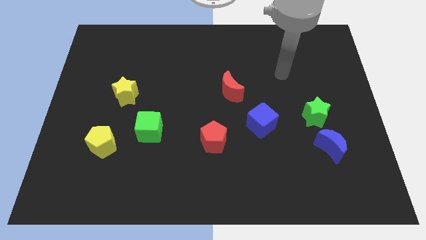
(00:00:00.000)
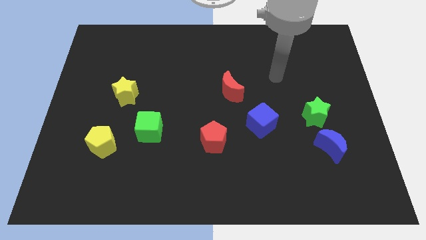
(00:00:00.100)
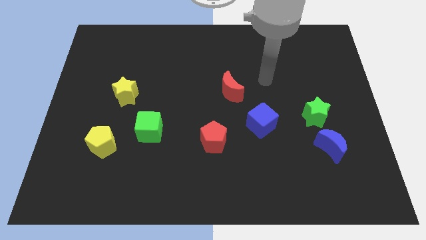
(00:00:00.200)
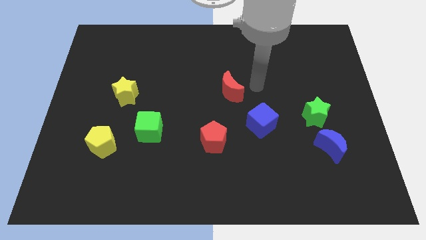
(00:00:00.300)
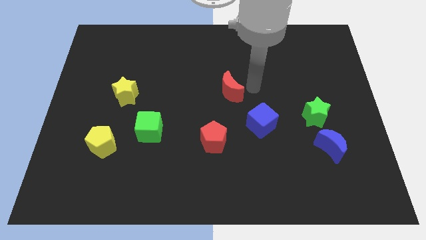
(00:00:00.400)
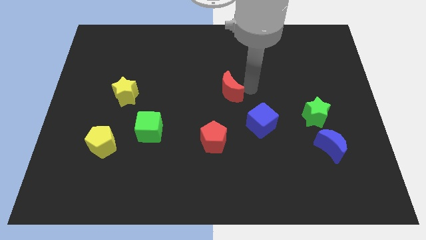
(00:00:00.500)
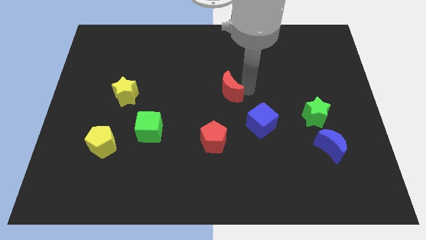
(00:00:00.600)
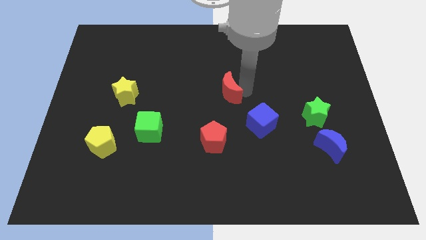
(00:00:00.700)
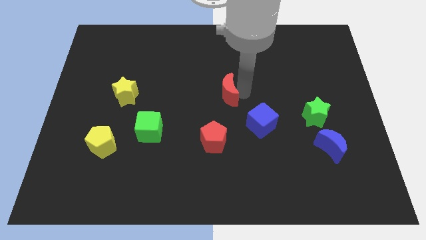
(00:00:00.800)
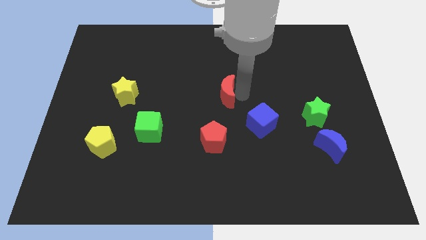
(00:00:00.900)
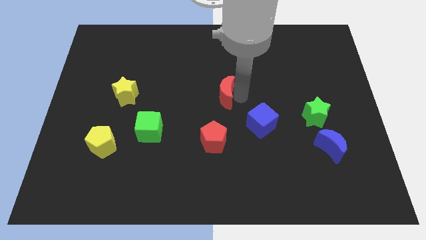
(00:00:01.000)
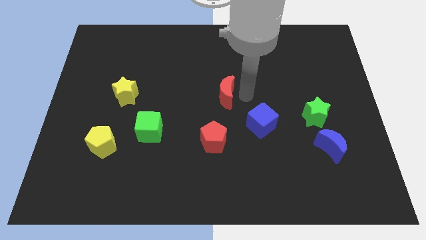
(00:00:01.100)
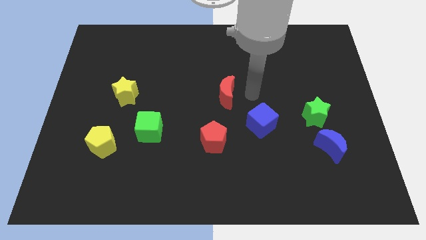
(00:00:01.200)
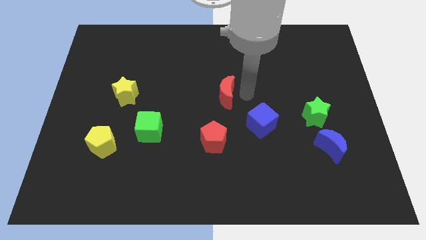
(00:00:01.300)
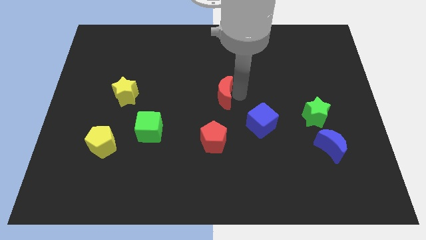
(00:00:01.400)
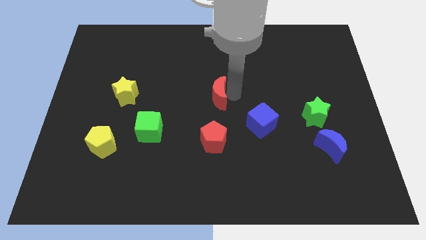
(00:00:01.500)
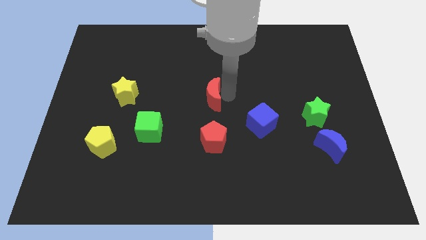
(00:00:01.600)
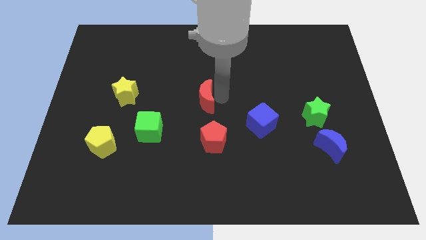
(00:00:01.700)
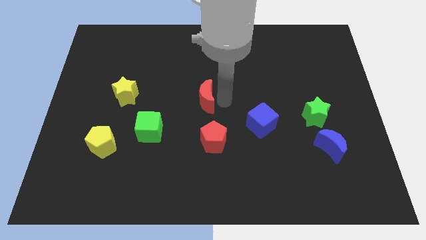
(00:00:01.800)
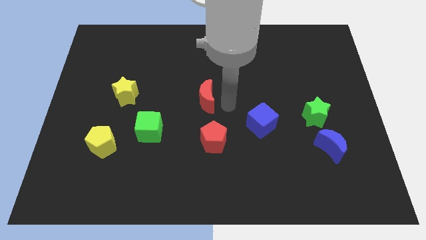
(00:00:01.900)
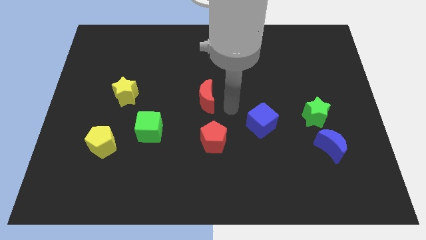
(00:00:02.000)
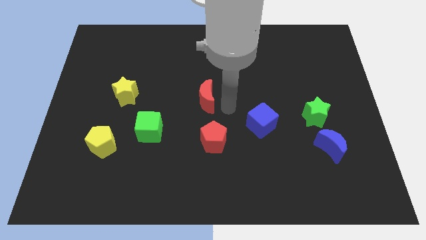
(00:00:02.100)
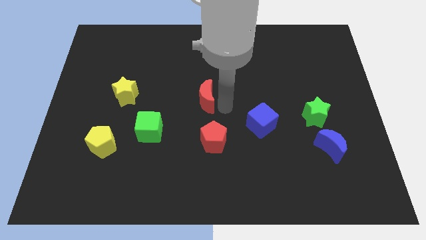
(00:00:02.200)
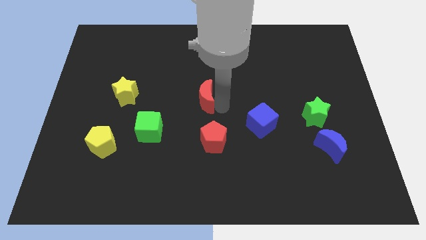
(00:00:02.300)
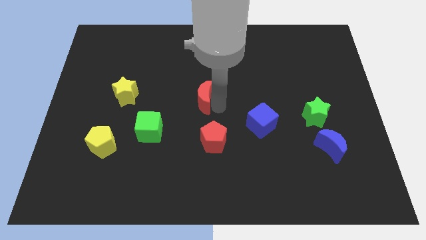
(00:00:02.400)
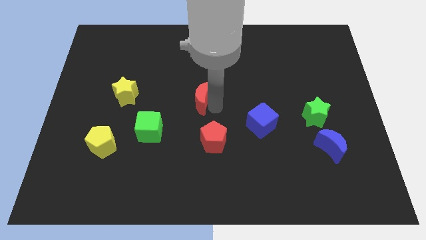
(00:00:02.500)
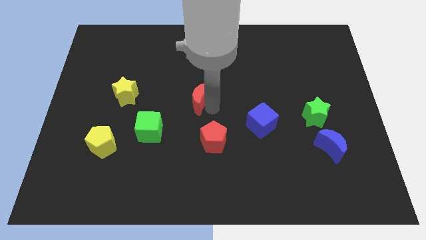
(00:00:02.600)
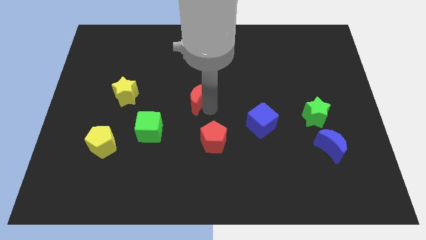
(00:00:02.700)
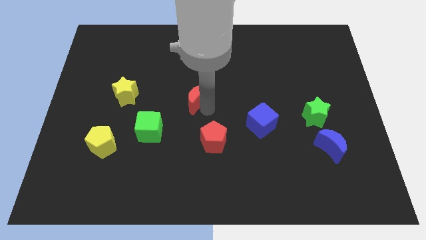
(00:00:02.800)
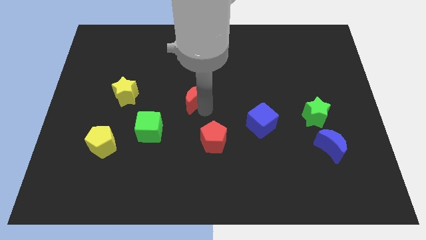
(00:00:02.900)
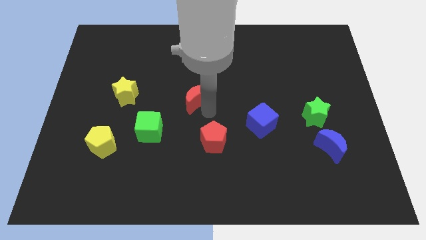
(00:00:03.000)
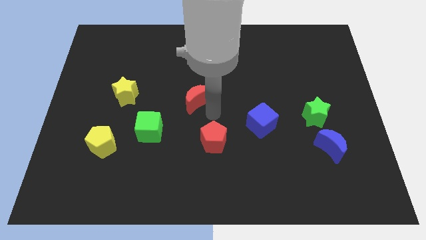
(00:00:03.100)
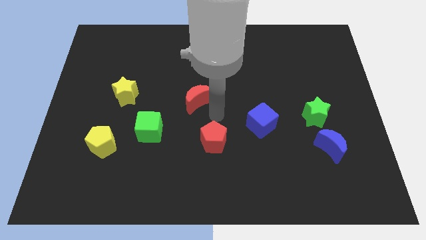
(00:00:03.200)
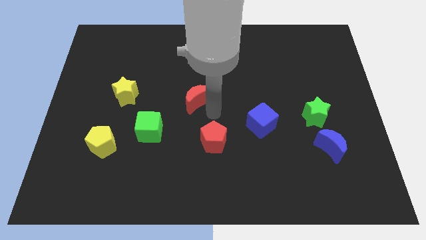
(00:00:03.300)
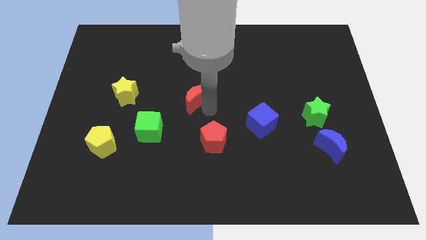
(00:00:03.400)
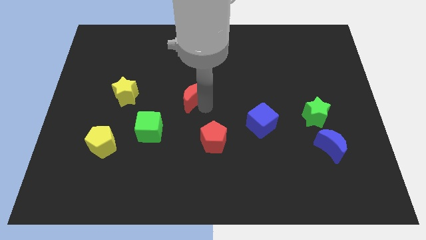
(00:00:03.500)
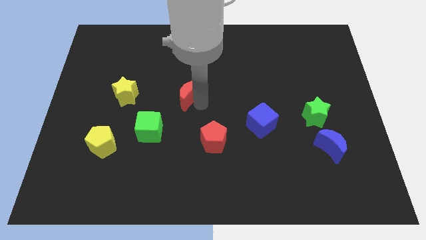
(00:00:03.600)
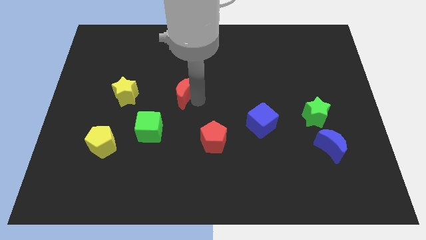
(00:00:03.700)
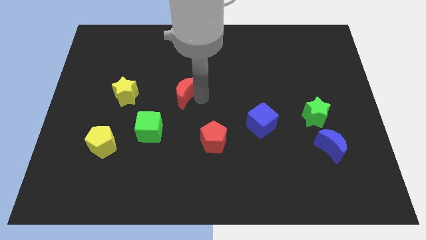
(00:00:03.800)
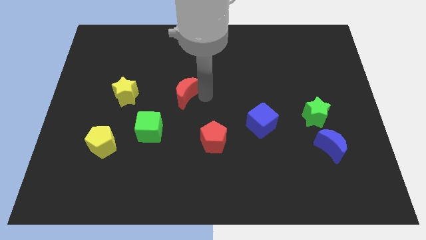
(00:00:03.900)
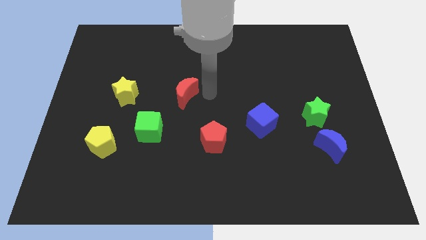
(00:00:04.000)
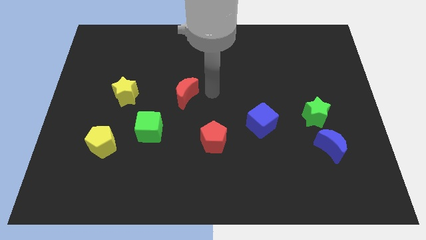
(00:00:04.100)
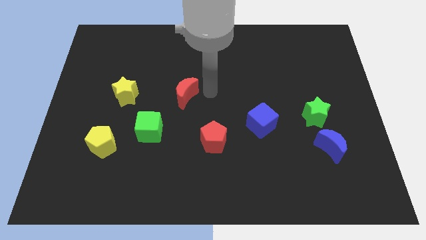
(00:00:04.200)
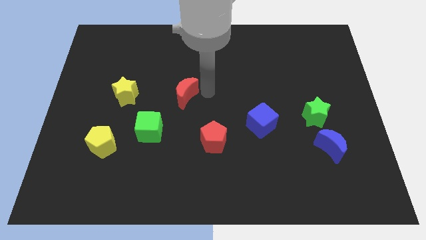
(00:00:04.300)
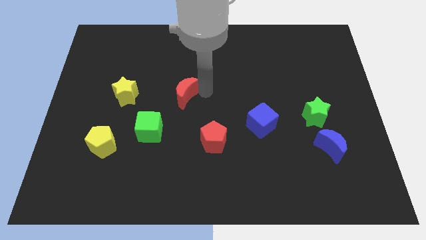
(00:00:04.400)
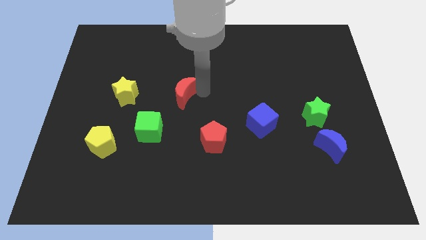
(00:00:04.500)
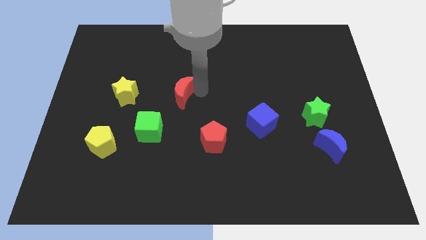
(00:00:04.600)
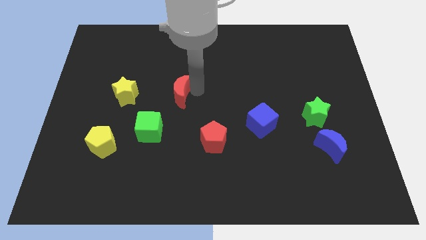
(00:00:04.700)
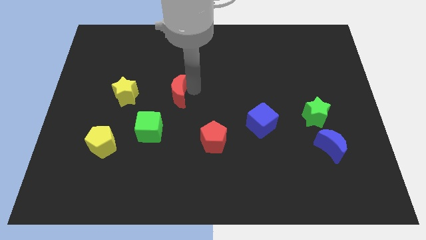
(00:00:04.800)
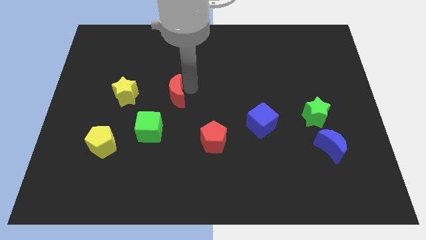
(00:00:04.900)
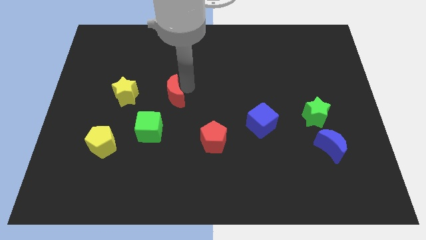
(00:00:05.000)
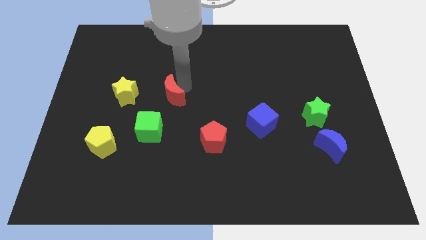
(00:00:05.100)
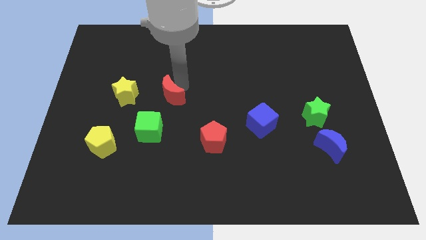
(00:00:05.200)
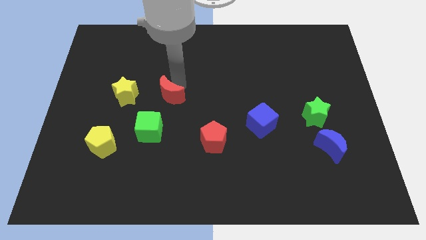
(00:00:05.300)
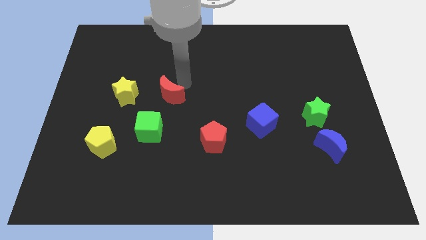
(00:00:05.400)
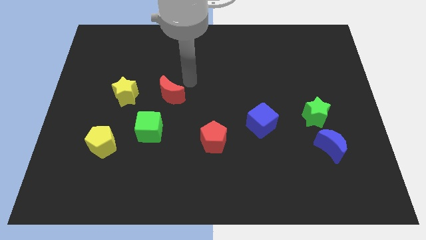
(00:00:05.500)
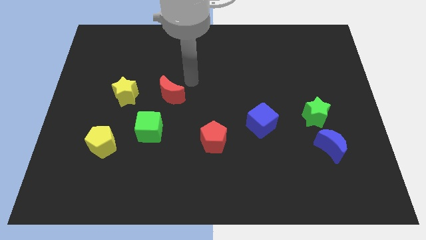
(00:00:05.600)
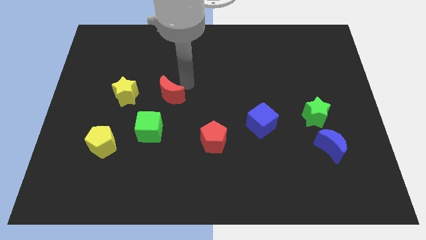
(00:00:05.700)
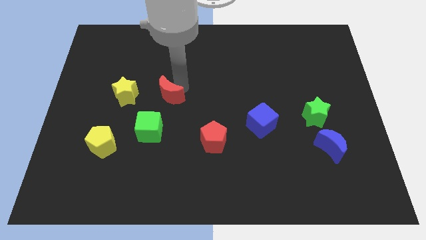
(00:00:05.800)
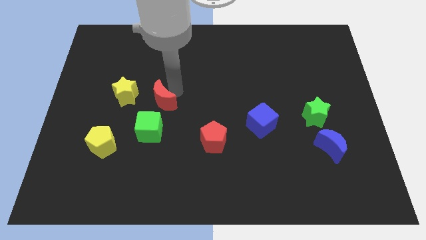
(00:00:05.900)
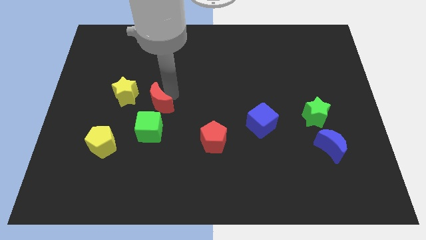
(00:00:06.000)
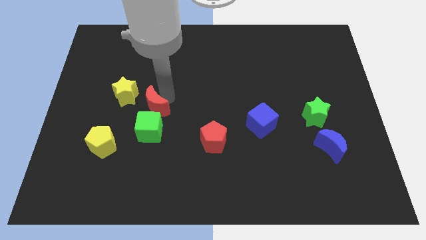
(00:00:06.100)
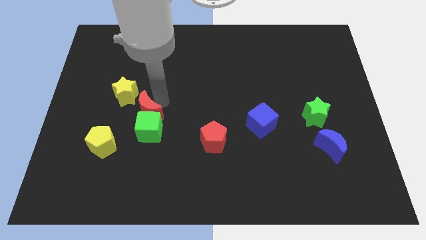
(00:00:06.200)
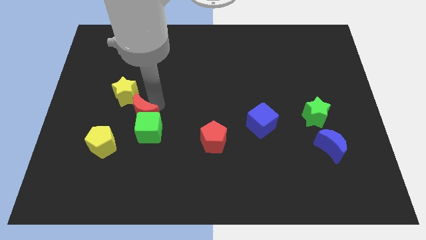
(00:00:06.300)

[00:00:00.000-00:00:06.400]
slide the red moon to the bottom of the yellow star

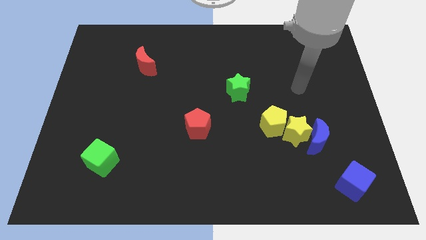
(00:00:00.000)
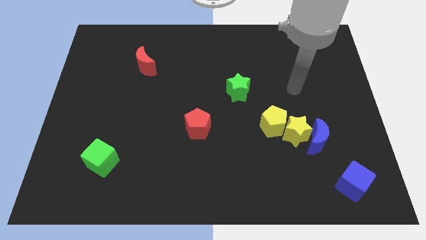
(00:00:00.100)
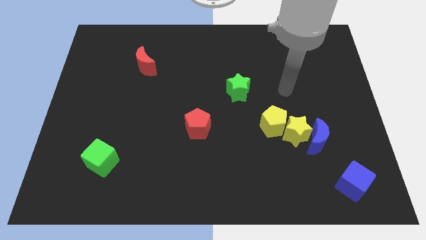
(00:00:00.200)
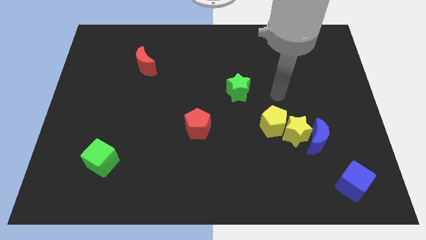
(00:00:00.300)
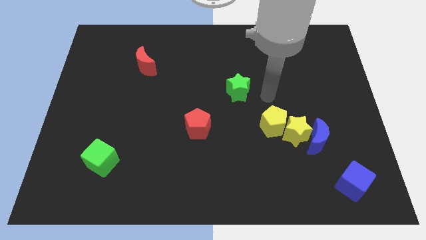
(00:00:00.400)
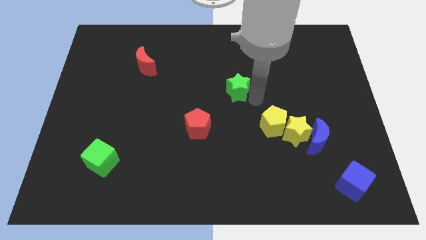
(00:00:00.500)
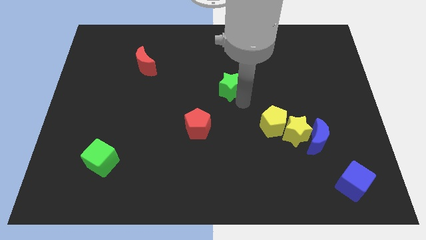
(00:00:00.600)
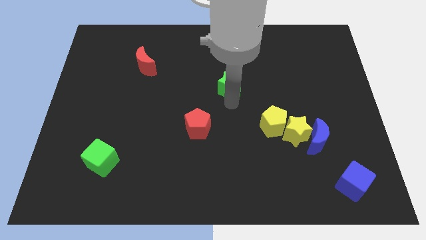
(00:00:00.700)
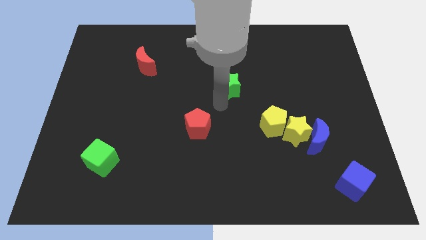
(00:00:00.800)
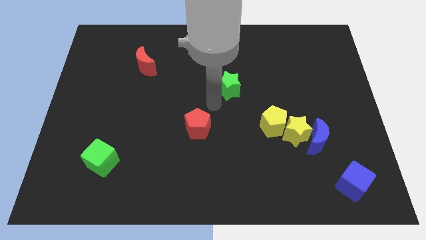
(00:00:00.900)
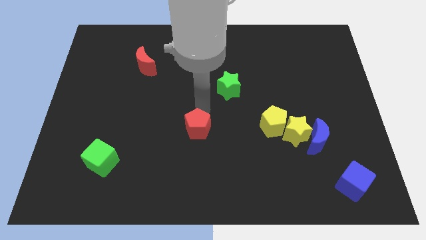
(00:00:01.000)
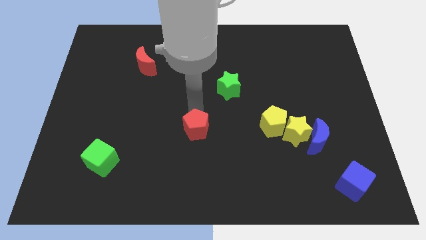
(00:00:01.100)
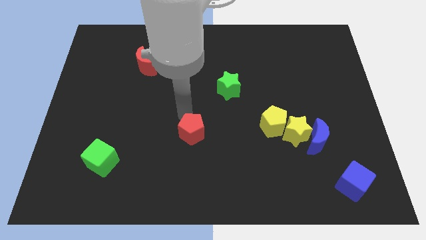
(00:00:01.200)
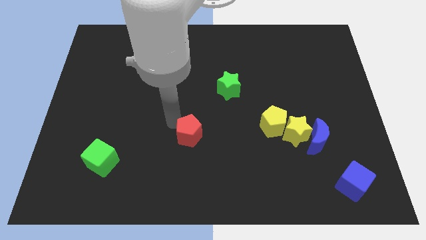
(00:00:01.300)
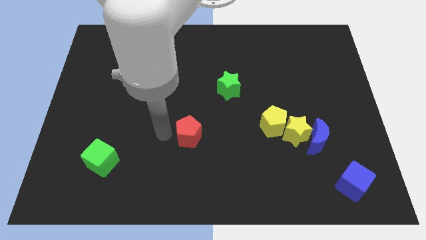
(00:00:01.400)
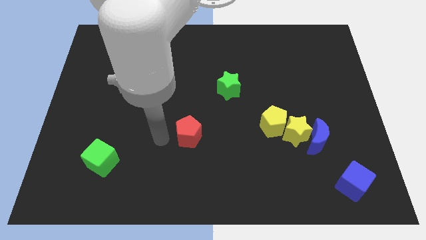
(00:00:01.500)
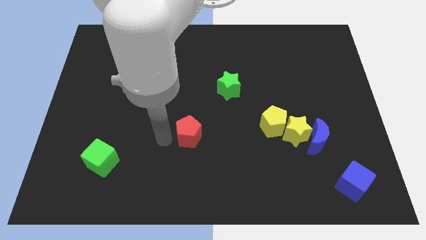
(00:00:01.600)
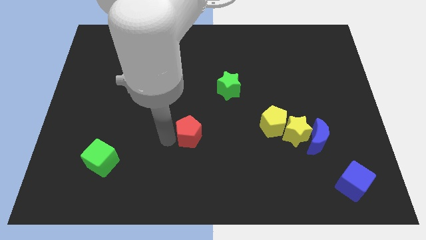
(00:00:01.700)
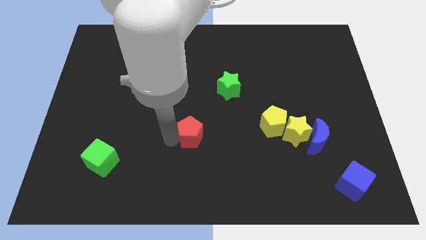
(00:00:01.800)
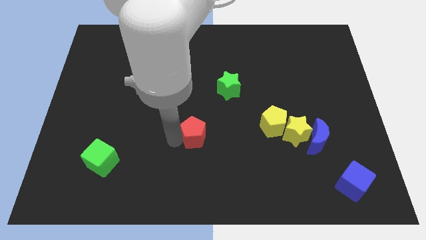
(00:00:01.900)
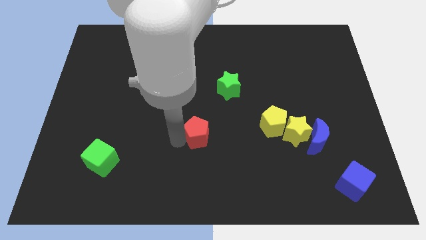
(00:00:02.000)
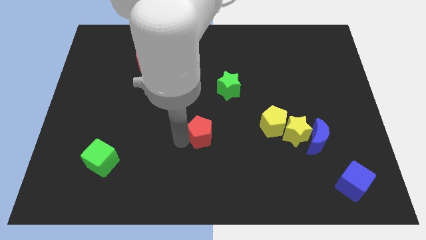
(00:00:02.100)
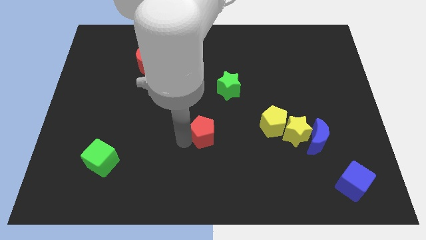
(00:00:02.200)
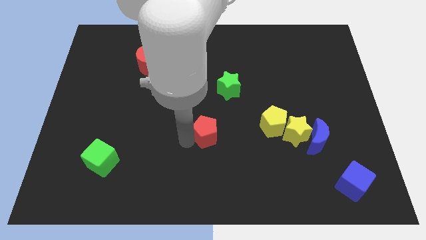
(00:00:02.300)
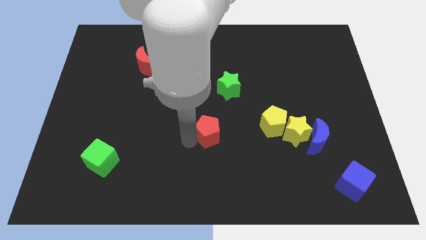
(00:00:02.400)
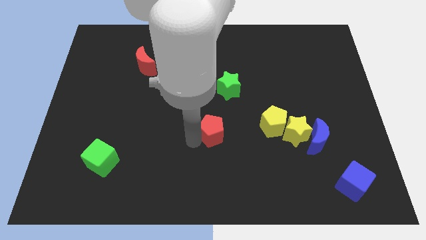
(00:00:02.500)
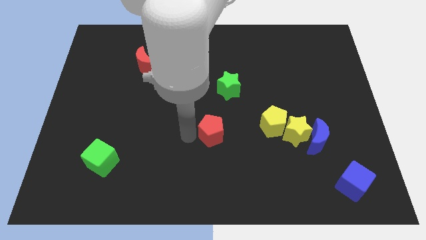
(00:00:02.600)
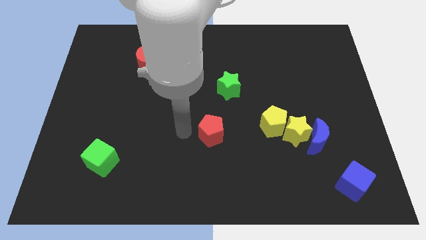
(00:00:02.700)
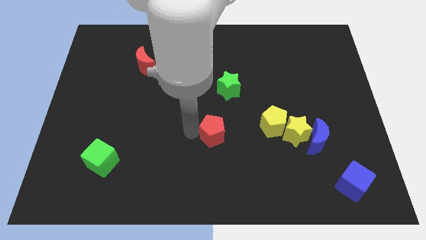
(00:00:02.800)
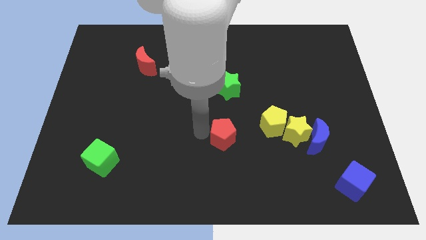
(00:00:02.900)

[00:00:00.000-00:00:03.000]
put the red pentagon to the left side of the yellow star
